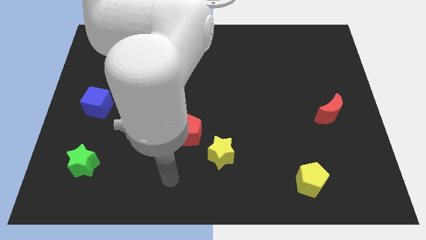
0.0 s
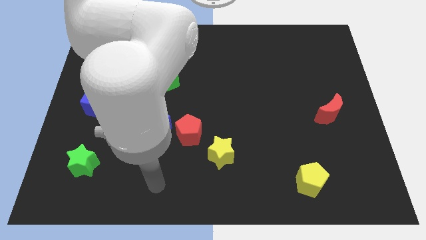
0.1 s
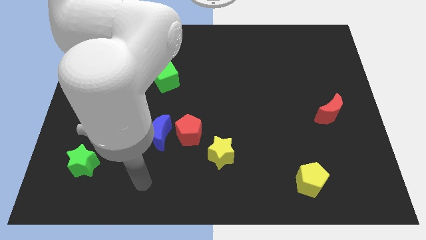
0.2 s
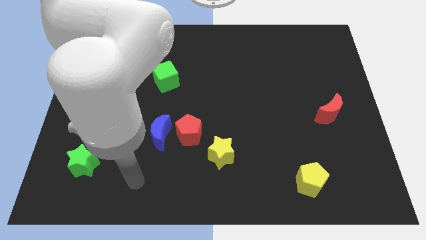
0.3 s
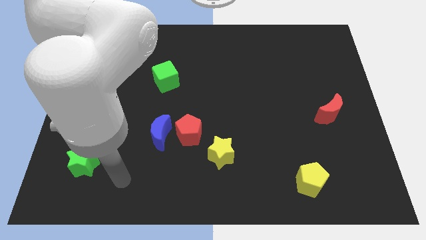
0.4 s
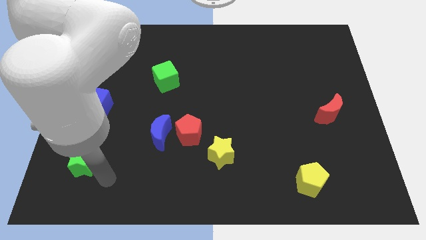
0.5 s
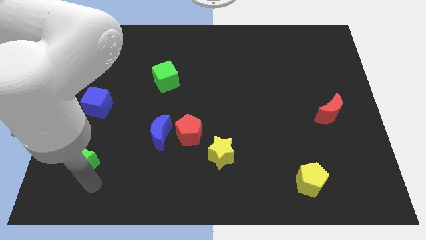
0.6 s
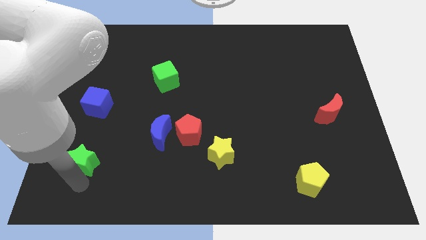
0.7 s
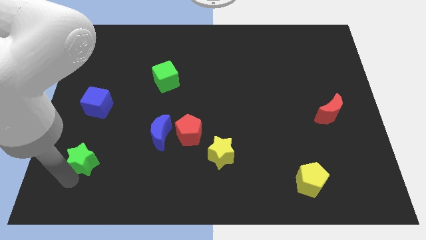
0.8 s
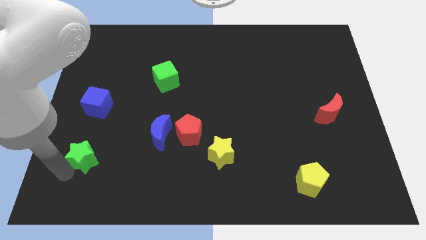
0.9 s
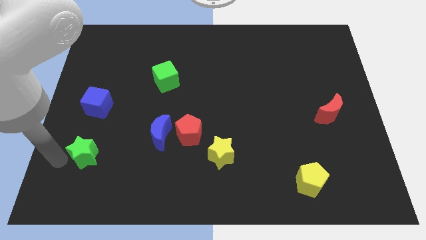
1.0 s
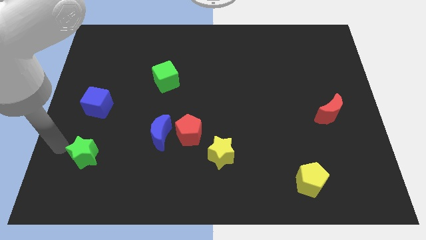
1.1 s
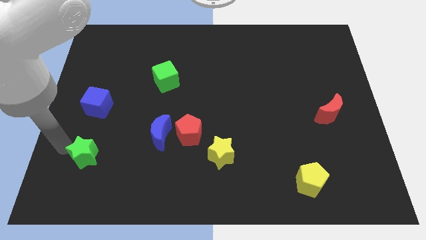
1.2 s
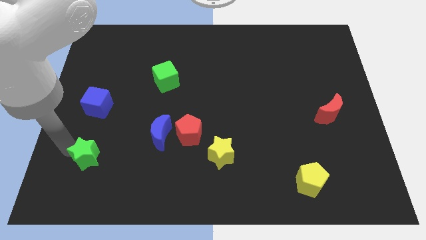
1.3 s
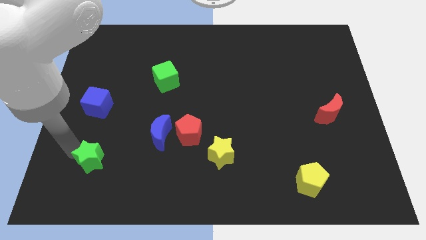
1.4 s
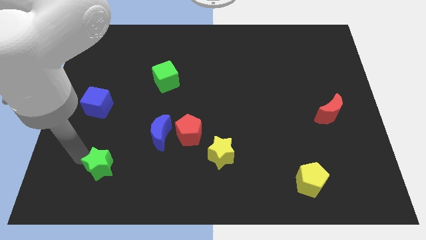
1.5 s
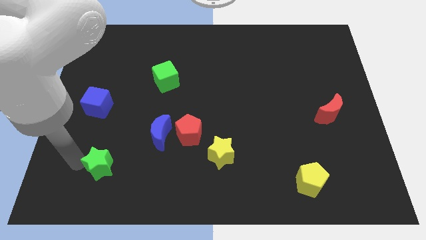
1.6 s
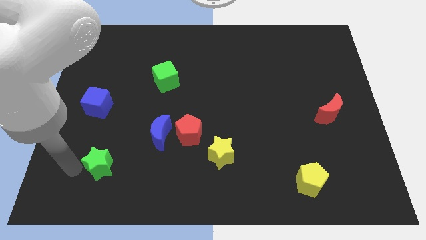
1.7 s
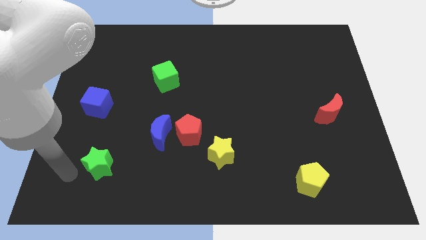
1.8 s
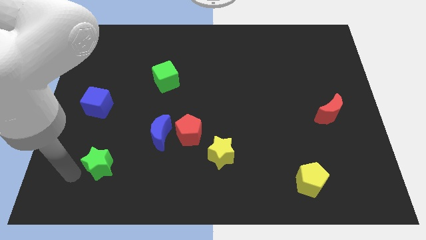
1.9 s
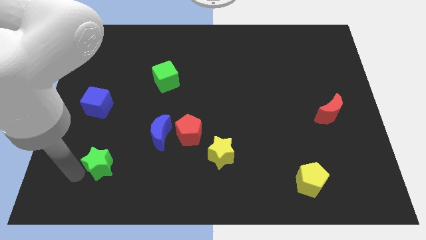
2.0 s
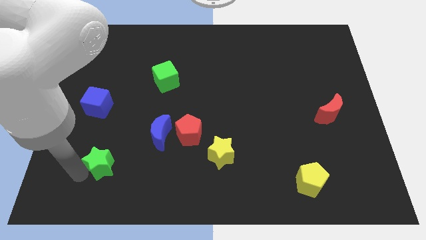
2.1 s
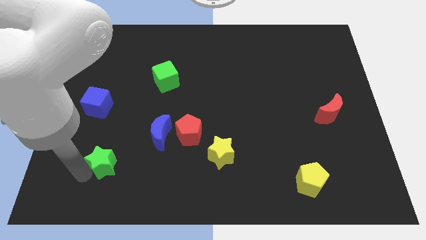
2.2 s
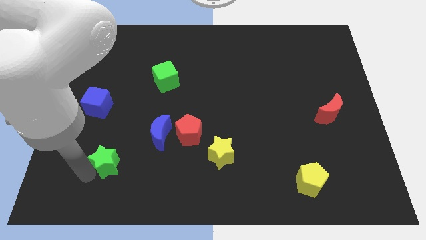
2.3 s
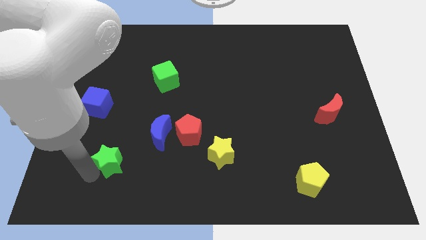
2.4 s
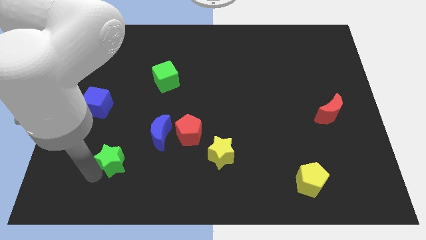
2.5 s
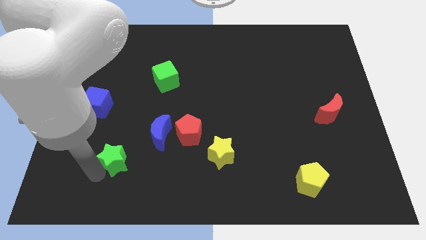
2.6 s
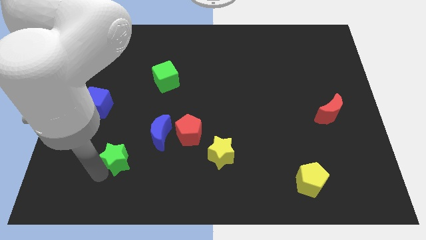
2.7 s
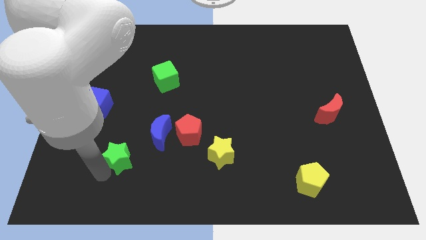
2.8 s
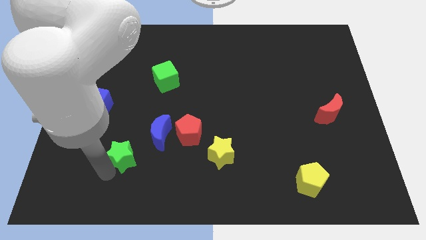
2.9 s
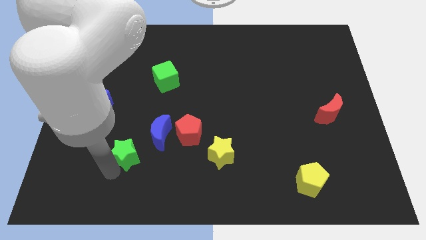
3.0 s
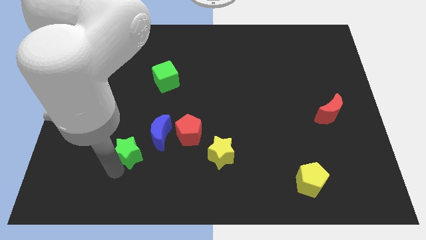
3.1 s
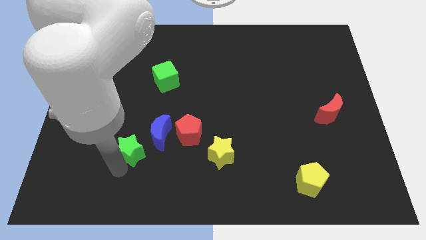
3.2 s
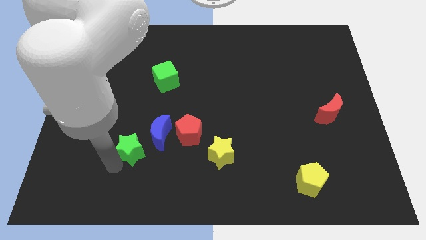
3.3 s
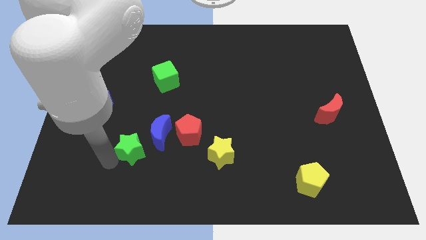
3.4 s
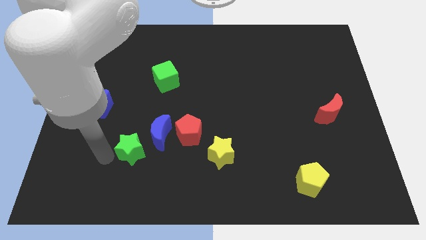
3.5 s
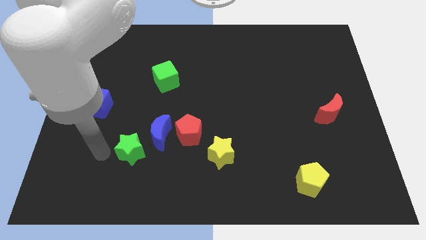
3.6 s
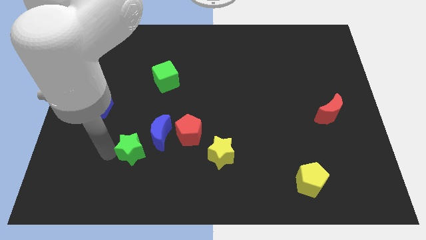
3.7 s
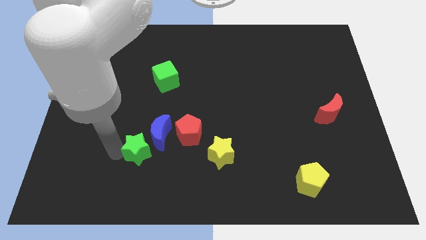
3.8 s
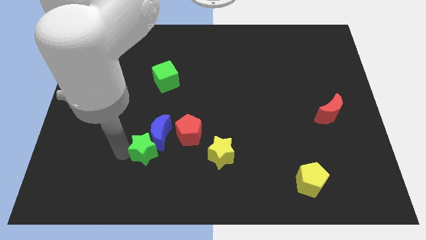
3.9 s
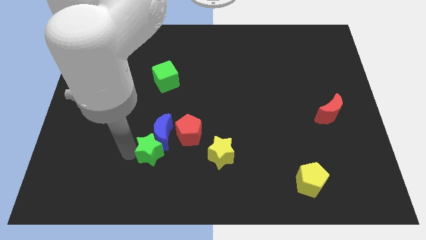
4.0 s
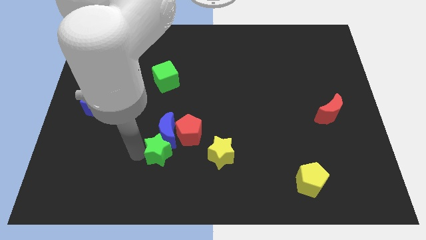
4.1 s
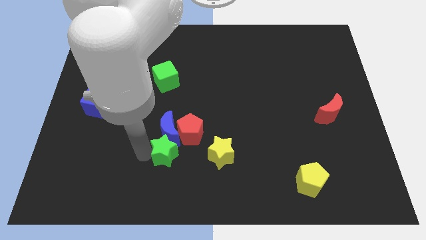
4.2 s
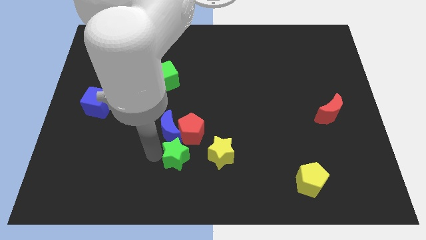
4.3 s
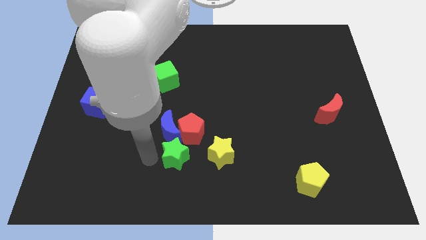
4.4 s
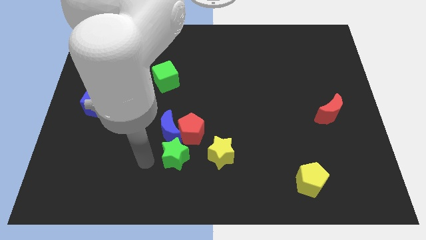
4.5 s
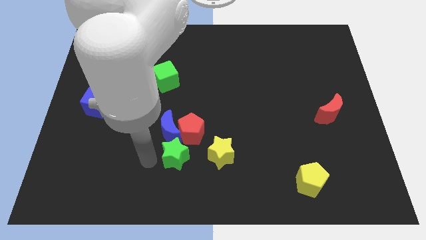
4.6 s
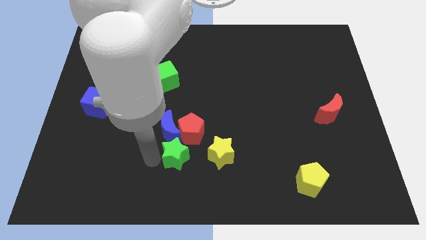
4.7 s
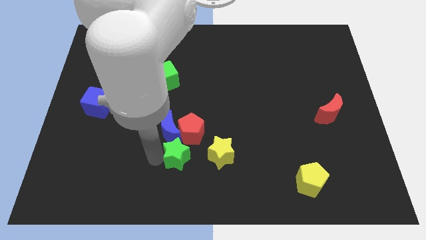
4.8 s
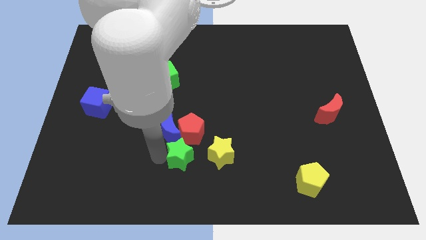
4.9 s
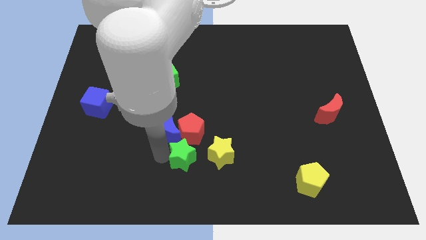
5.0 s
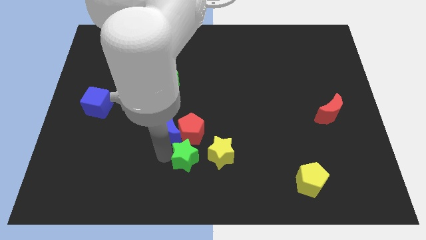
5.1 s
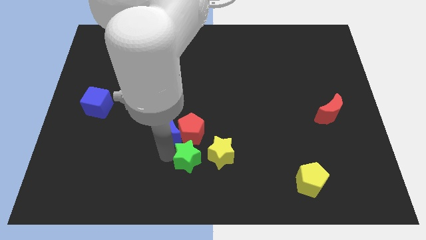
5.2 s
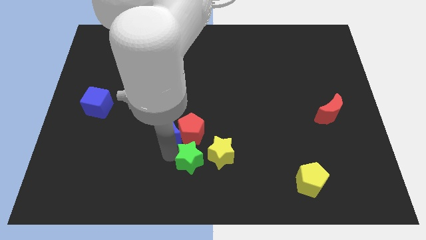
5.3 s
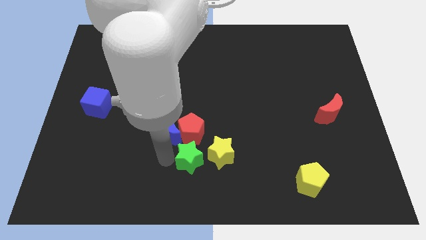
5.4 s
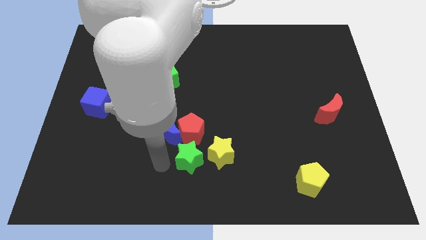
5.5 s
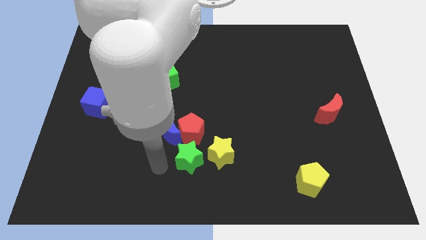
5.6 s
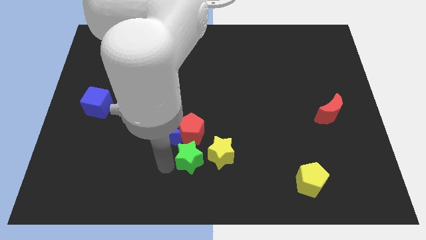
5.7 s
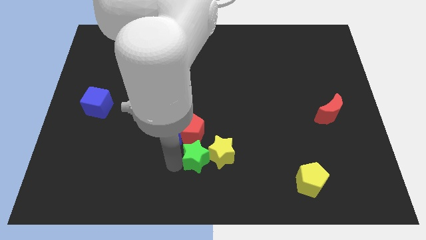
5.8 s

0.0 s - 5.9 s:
push the green star close to the yellow star

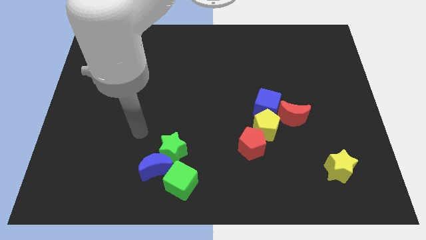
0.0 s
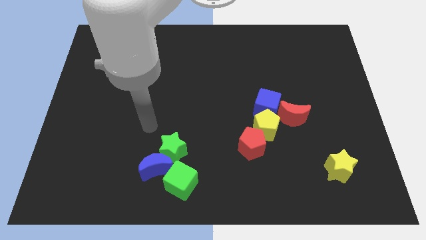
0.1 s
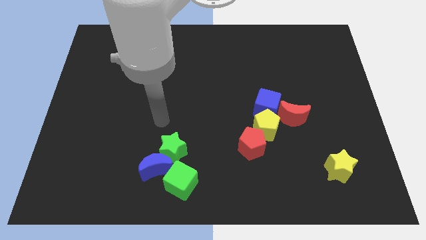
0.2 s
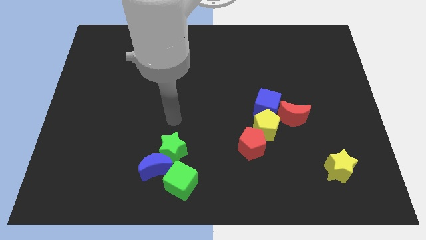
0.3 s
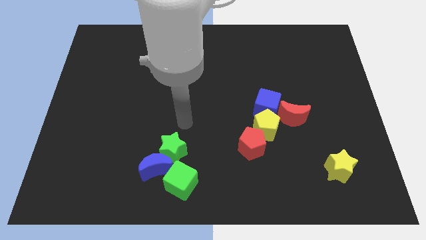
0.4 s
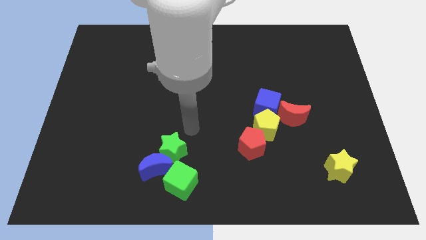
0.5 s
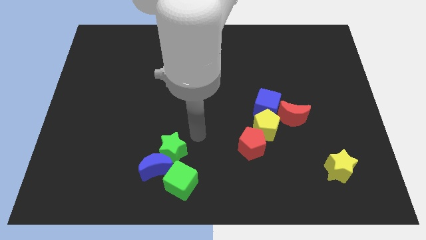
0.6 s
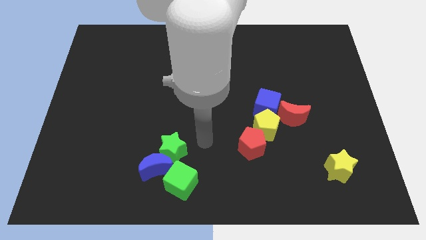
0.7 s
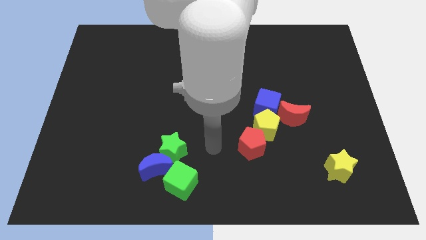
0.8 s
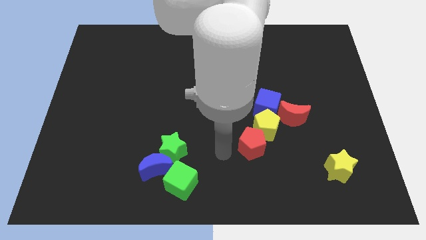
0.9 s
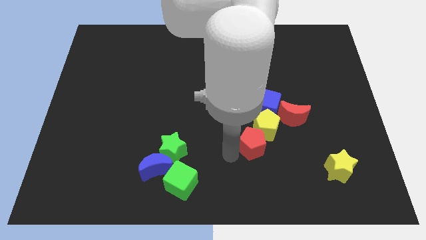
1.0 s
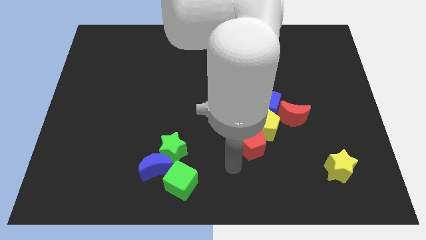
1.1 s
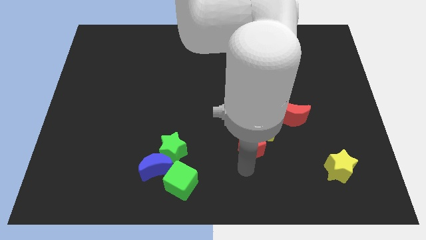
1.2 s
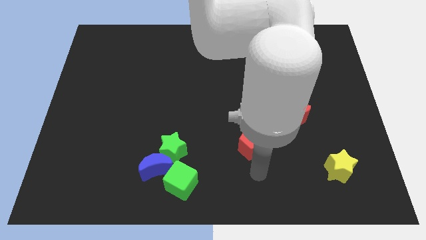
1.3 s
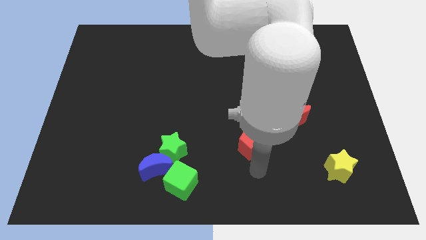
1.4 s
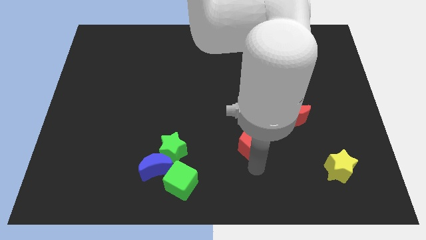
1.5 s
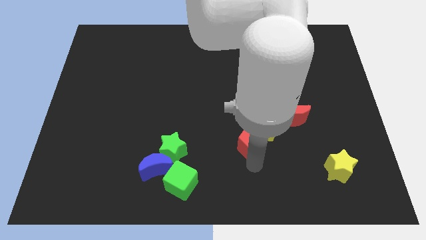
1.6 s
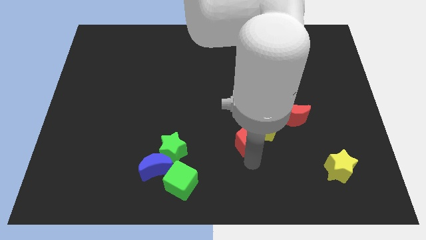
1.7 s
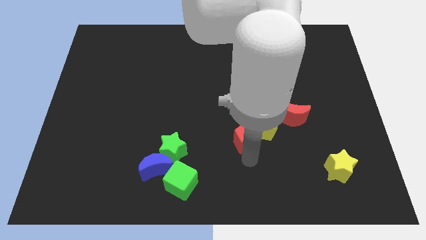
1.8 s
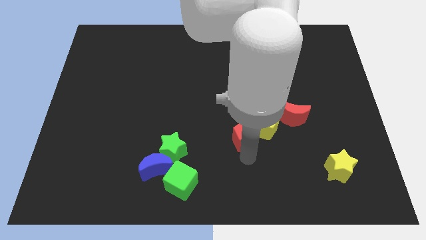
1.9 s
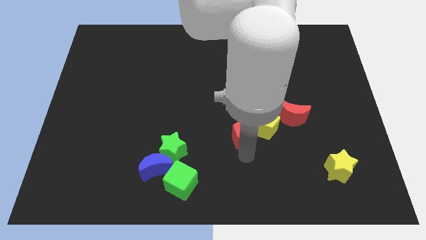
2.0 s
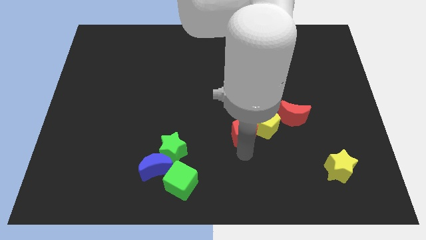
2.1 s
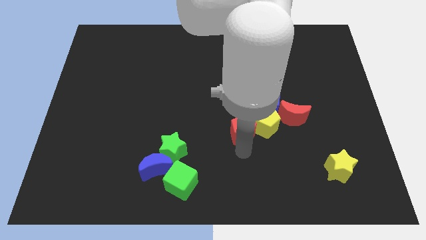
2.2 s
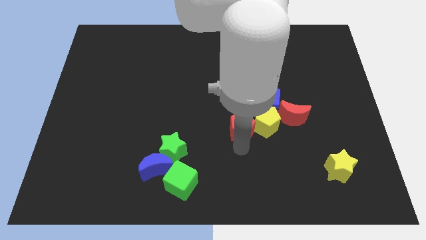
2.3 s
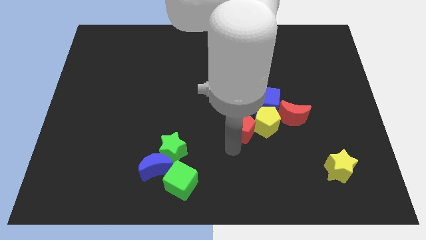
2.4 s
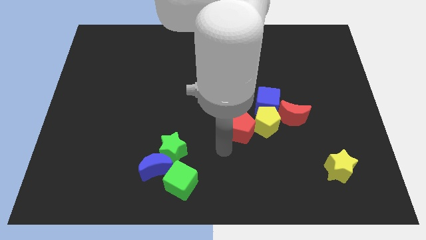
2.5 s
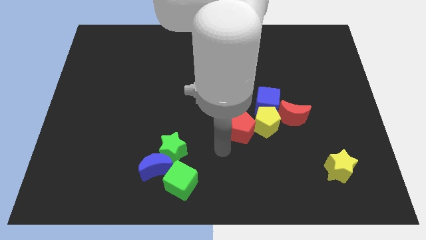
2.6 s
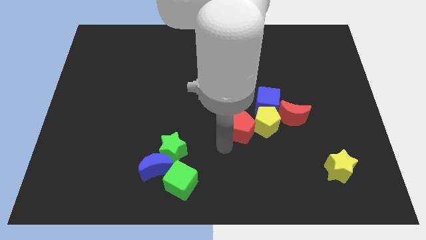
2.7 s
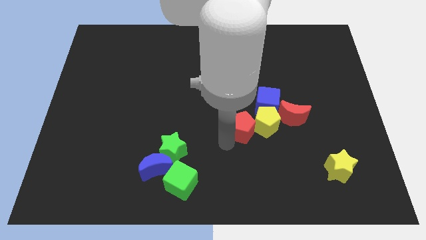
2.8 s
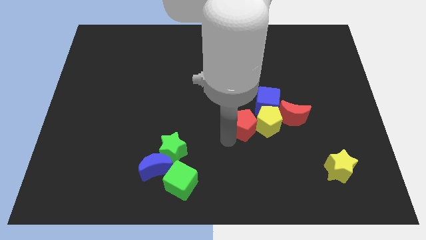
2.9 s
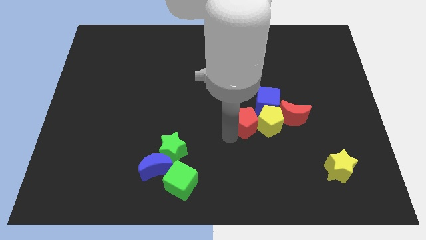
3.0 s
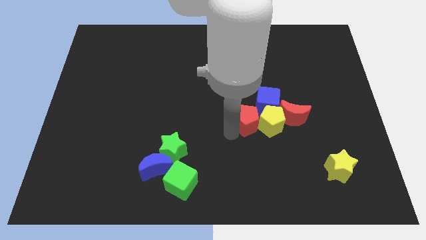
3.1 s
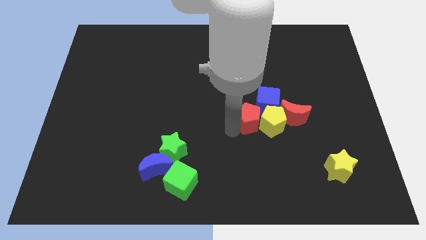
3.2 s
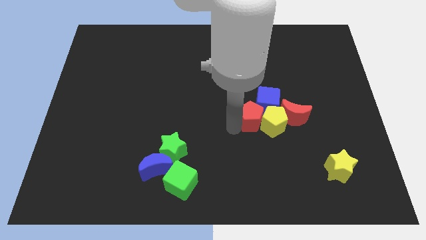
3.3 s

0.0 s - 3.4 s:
put the red pentagon next to the blue cube
